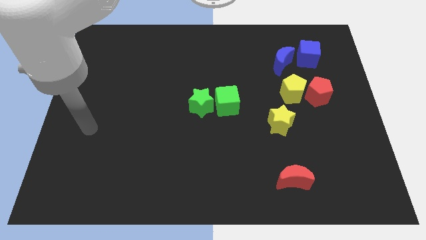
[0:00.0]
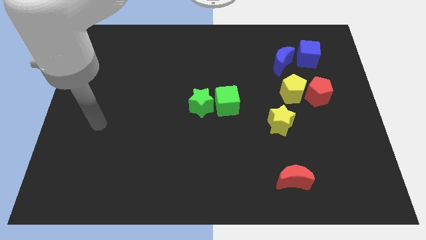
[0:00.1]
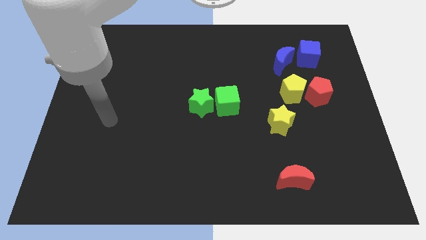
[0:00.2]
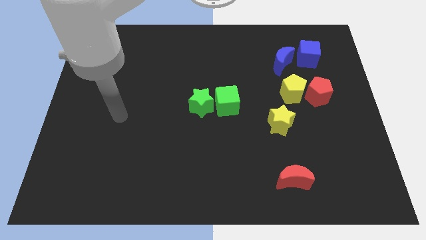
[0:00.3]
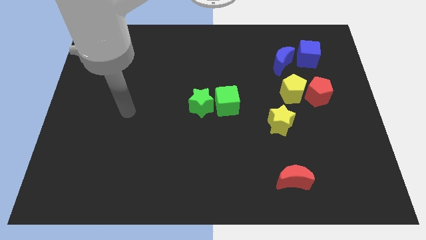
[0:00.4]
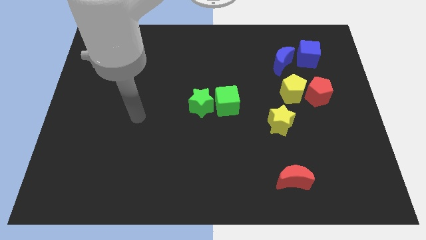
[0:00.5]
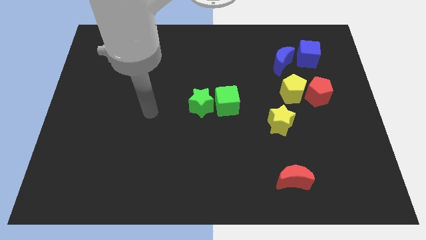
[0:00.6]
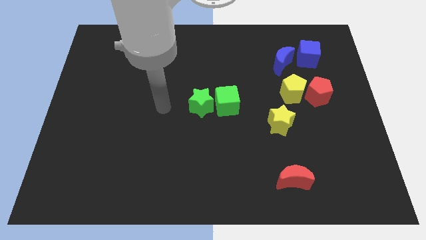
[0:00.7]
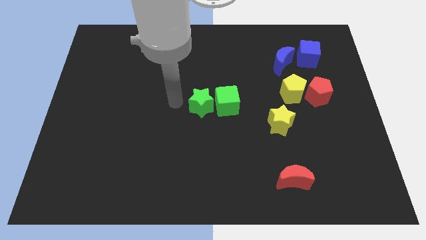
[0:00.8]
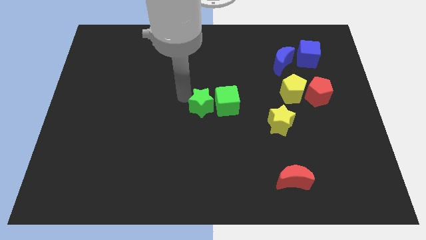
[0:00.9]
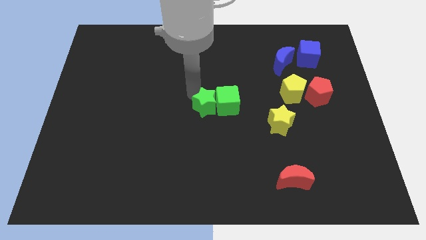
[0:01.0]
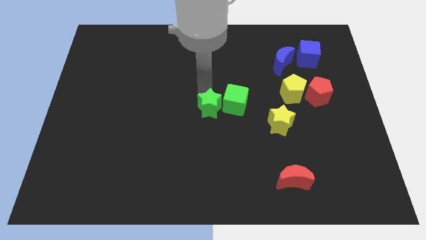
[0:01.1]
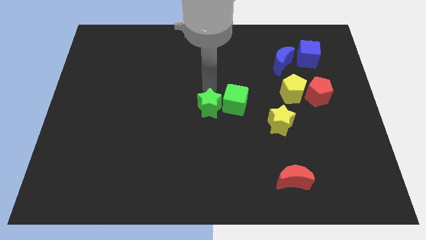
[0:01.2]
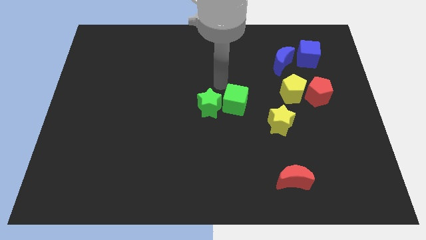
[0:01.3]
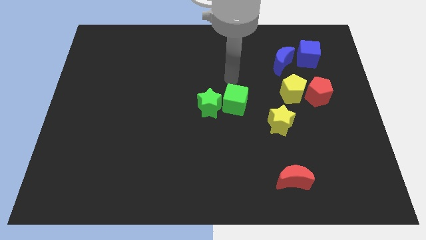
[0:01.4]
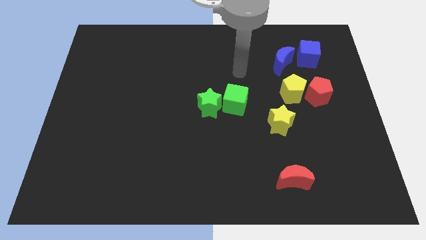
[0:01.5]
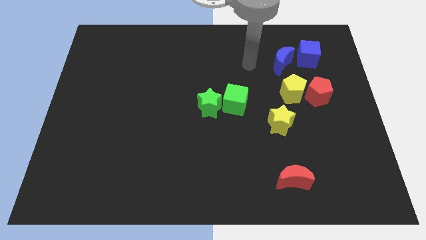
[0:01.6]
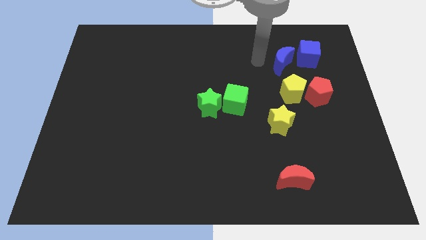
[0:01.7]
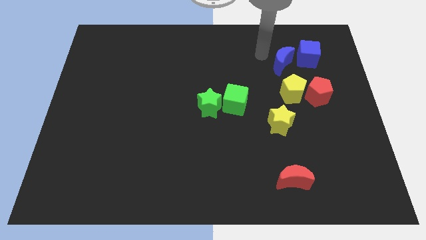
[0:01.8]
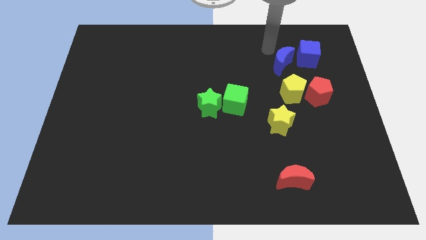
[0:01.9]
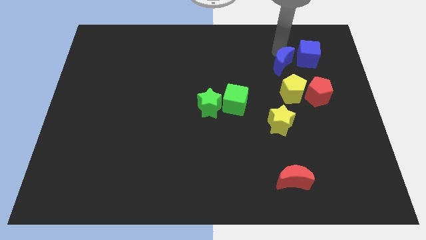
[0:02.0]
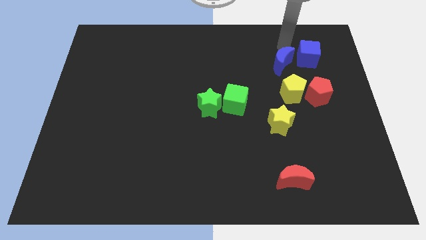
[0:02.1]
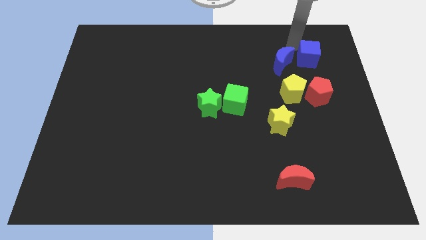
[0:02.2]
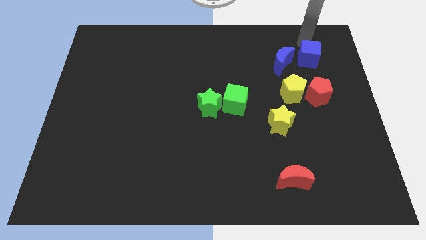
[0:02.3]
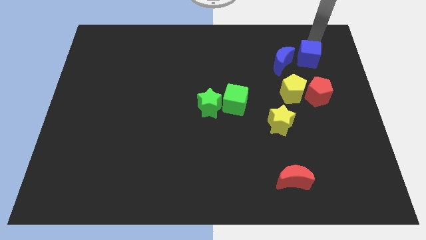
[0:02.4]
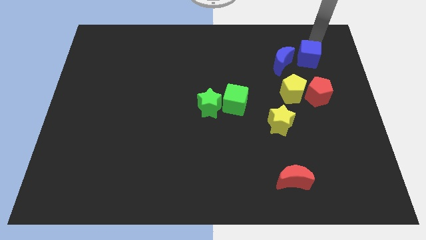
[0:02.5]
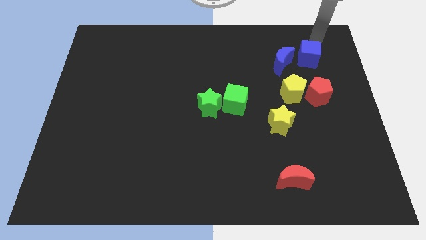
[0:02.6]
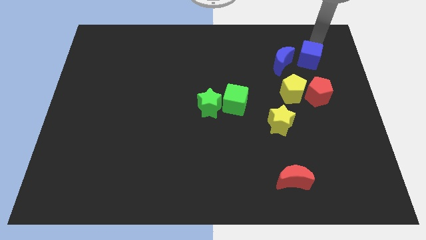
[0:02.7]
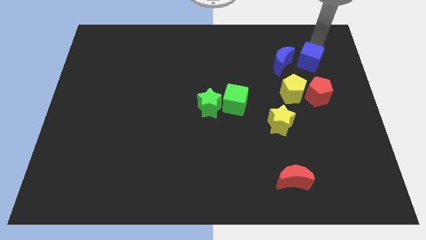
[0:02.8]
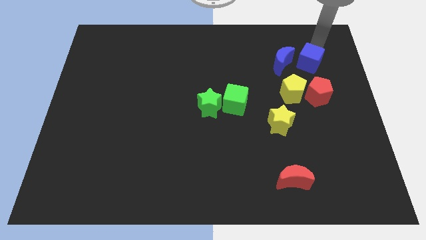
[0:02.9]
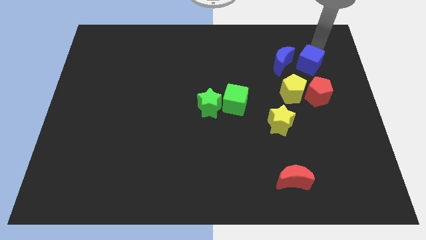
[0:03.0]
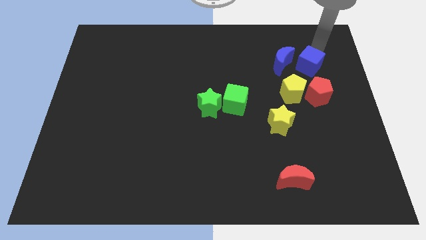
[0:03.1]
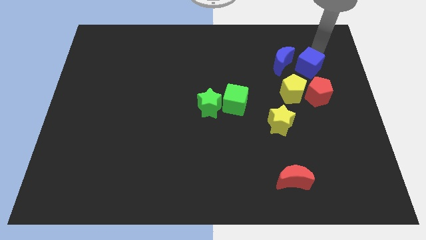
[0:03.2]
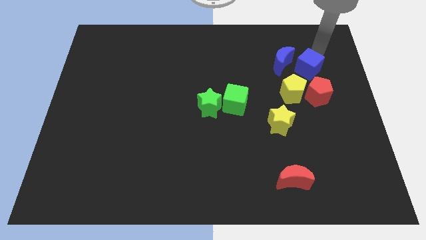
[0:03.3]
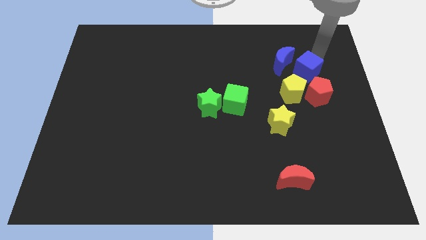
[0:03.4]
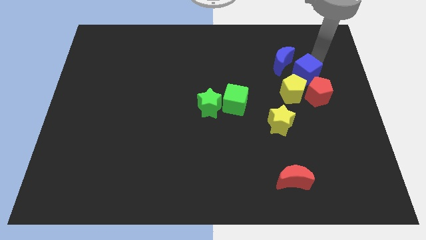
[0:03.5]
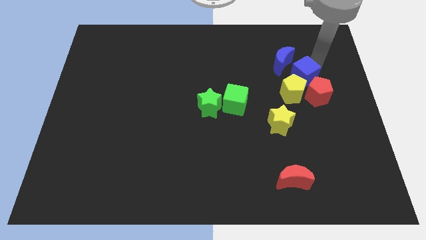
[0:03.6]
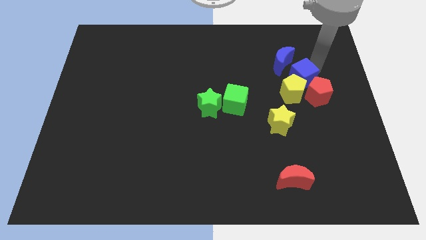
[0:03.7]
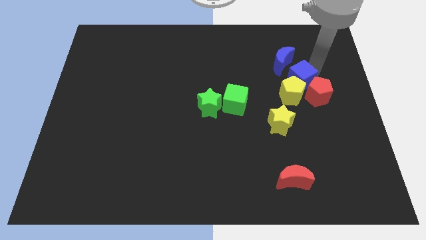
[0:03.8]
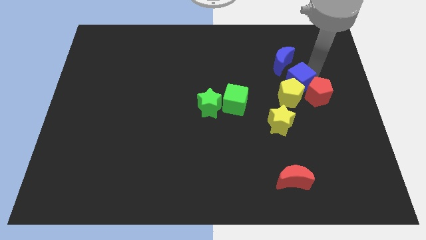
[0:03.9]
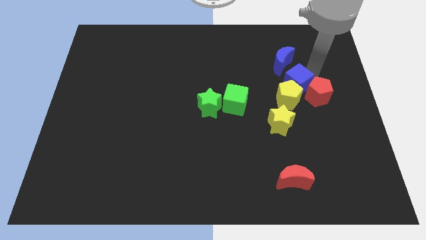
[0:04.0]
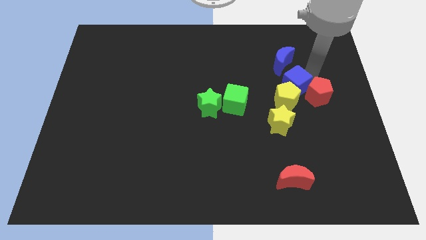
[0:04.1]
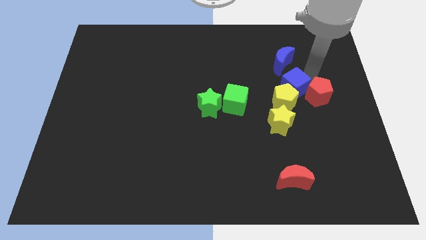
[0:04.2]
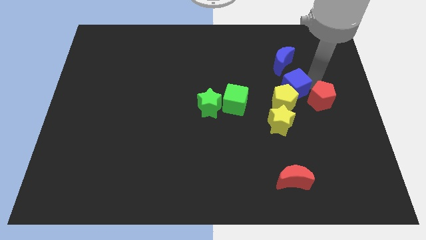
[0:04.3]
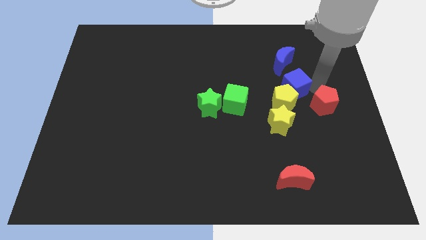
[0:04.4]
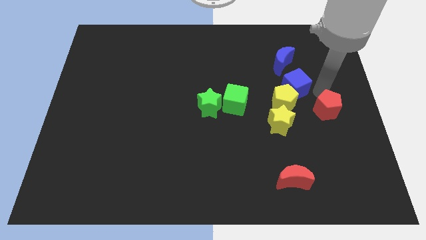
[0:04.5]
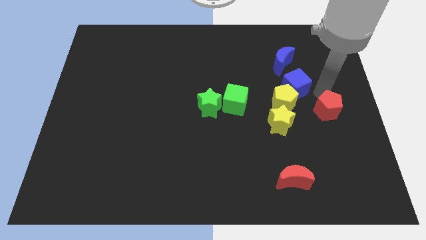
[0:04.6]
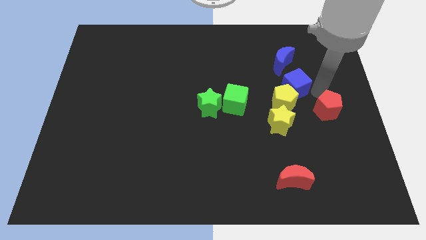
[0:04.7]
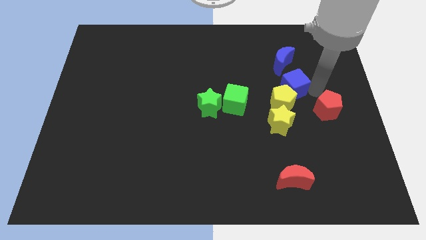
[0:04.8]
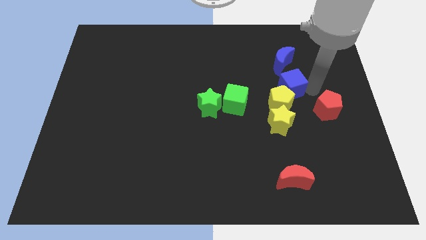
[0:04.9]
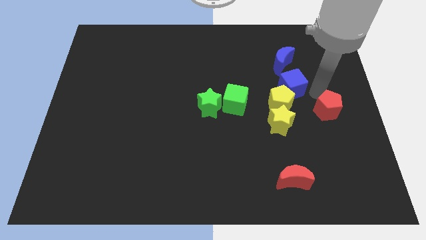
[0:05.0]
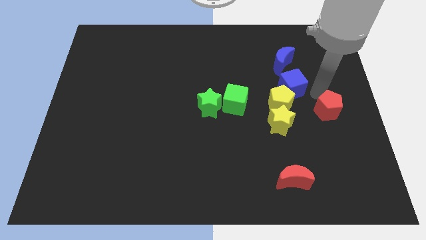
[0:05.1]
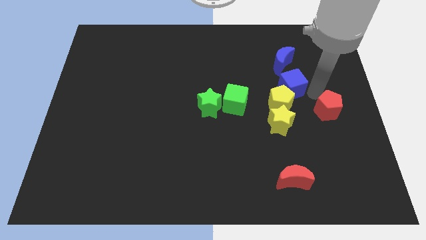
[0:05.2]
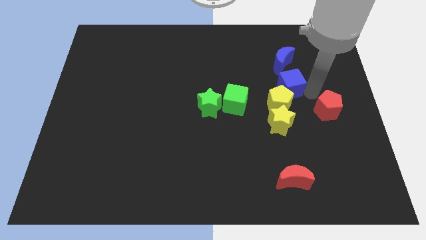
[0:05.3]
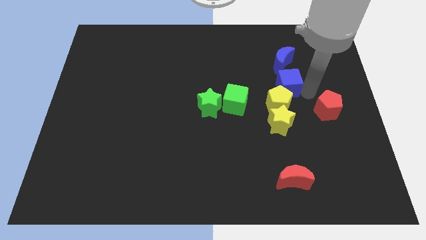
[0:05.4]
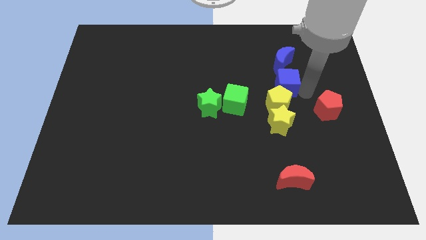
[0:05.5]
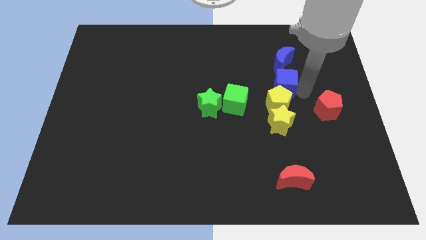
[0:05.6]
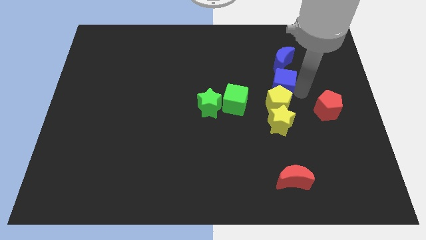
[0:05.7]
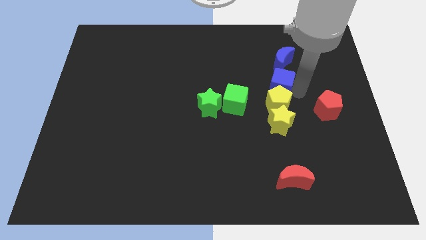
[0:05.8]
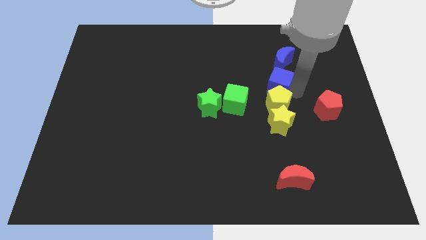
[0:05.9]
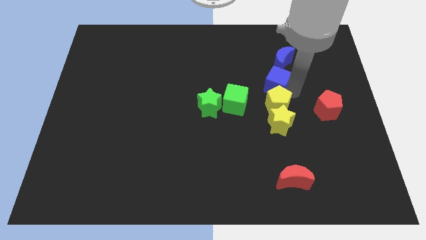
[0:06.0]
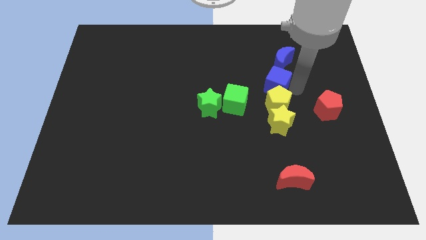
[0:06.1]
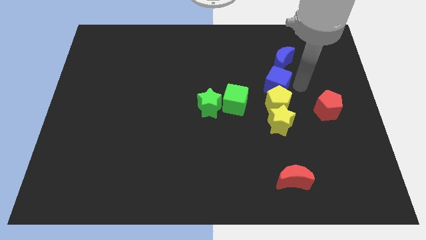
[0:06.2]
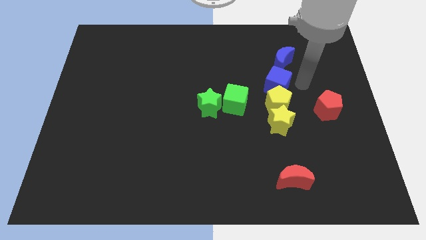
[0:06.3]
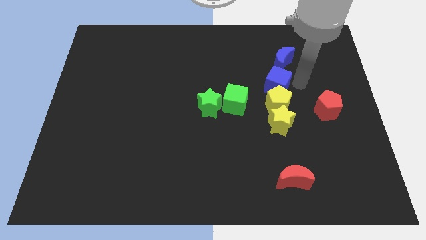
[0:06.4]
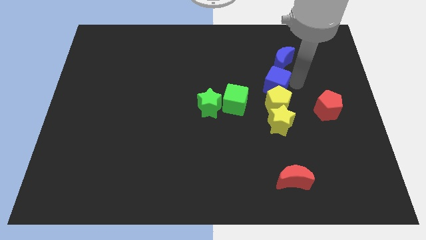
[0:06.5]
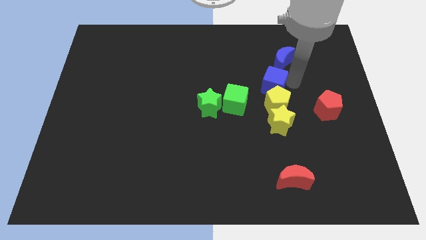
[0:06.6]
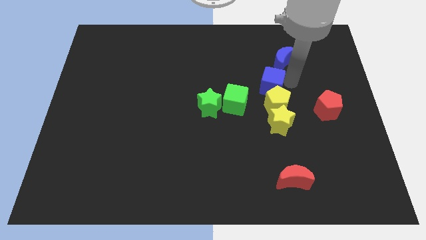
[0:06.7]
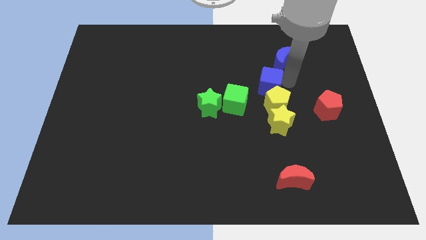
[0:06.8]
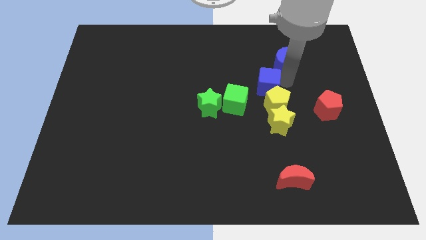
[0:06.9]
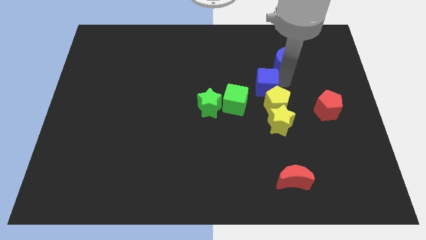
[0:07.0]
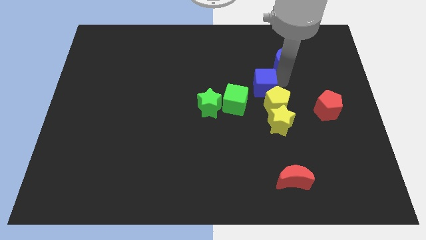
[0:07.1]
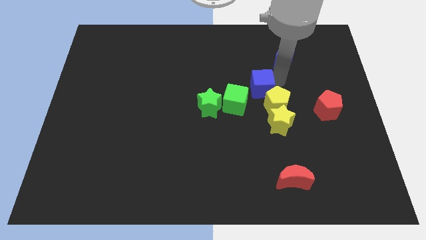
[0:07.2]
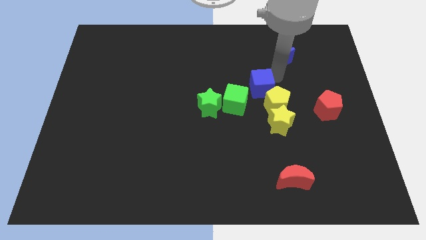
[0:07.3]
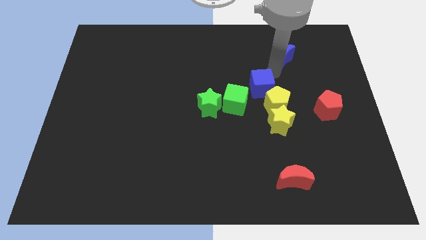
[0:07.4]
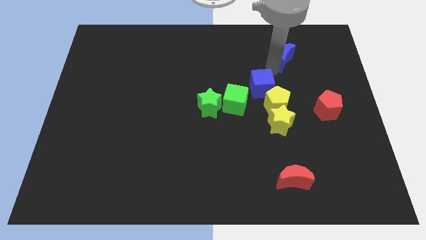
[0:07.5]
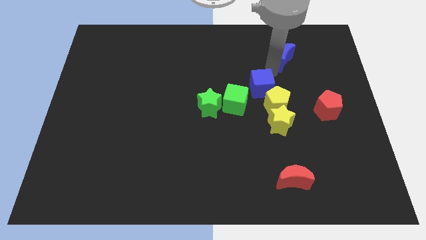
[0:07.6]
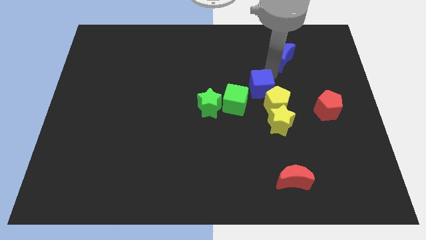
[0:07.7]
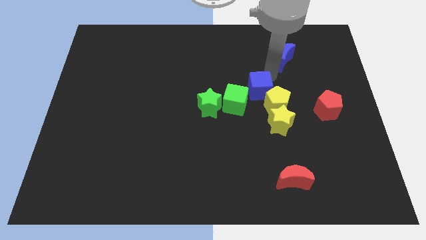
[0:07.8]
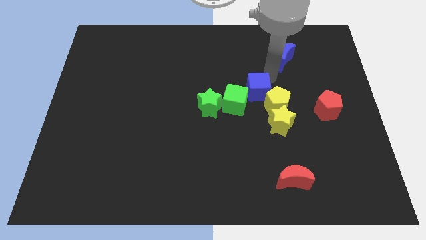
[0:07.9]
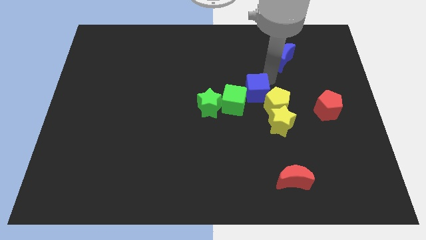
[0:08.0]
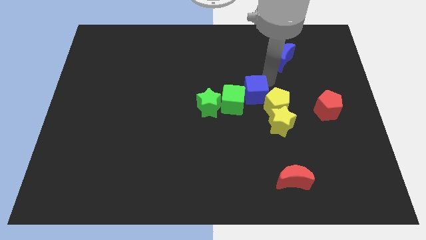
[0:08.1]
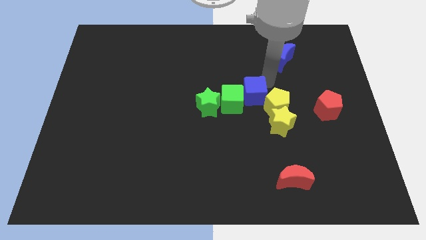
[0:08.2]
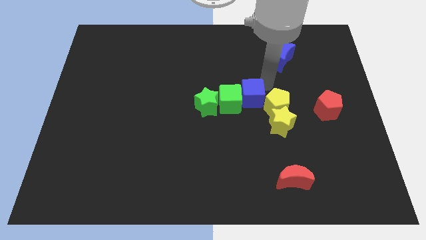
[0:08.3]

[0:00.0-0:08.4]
slide the blue cube downwards and then left
